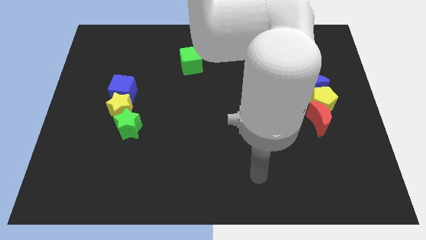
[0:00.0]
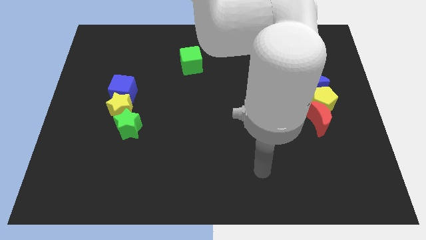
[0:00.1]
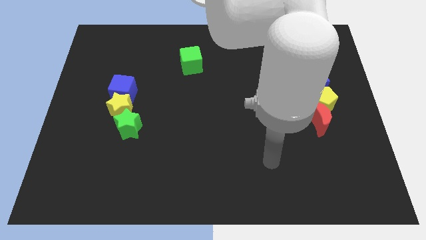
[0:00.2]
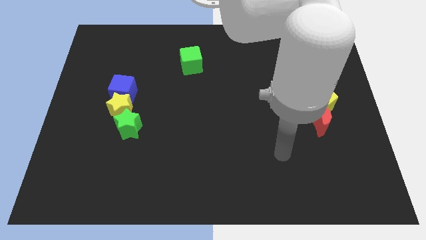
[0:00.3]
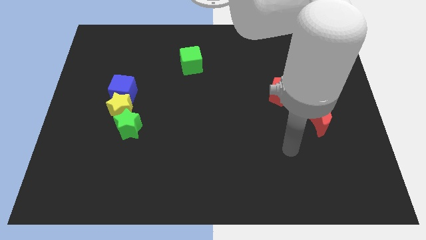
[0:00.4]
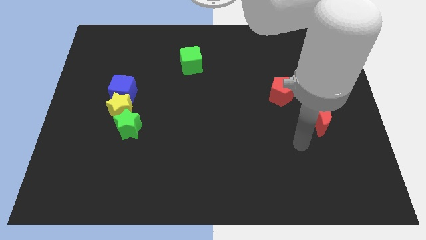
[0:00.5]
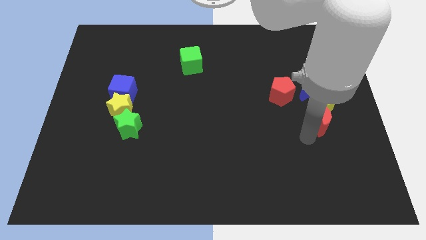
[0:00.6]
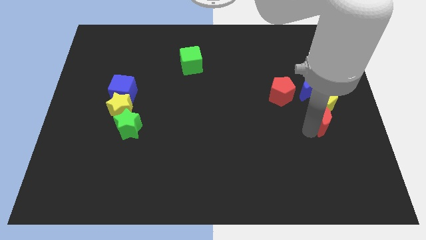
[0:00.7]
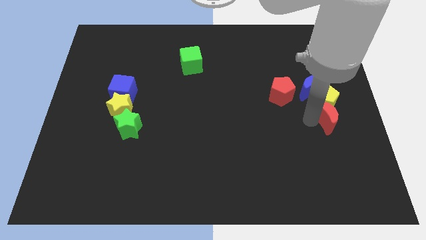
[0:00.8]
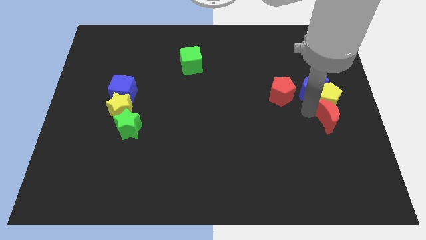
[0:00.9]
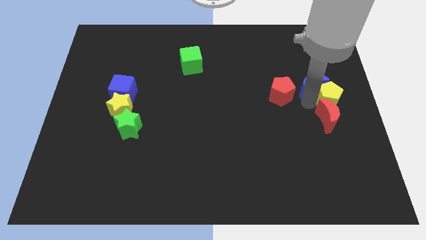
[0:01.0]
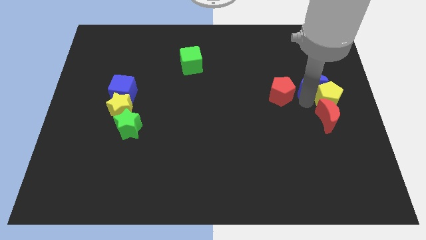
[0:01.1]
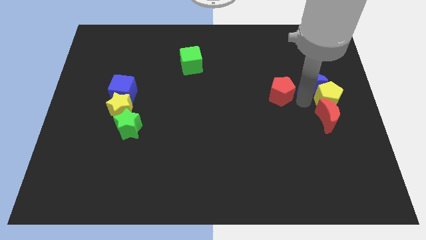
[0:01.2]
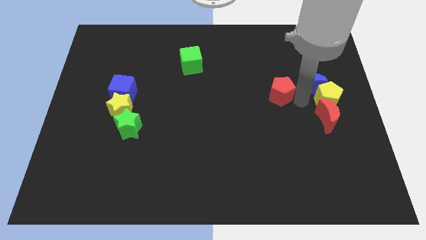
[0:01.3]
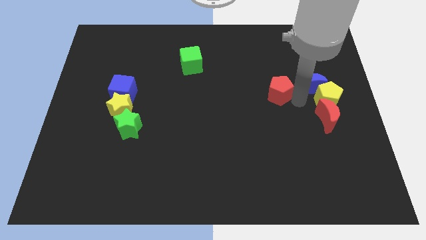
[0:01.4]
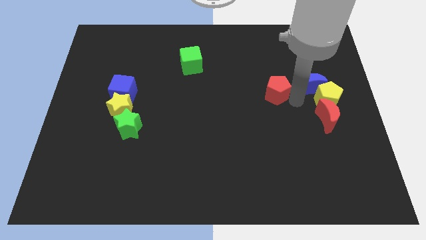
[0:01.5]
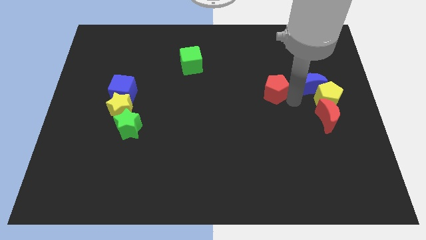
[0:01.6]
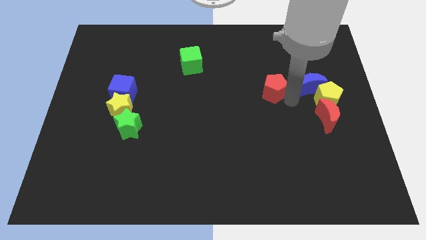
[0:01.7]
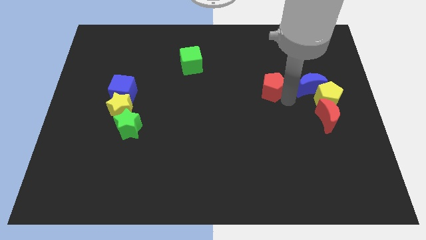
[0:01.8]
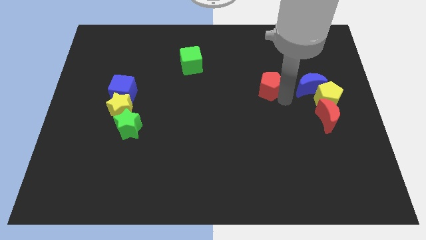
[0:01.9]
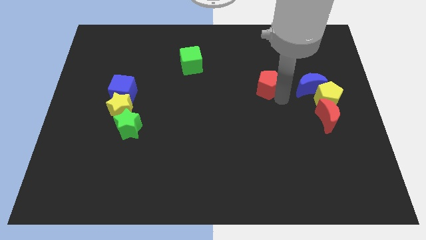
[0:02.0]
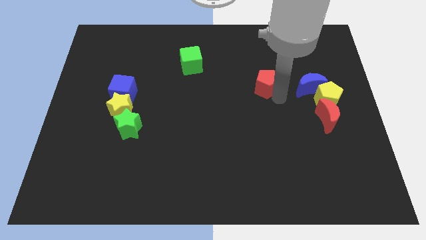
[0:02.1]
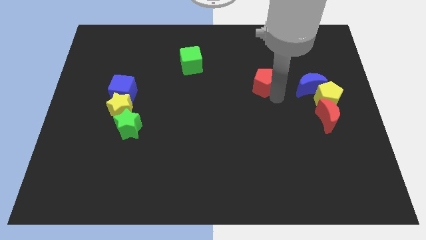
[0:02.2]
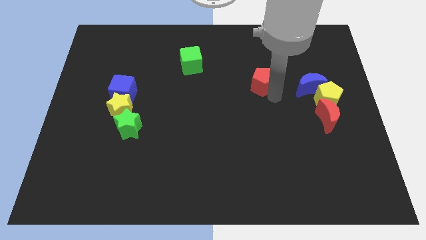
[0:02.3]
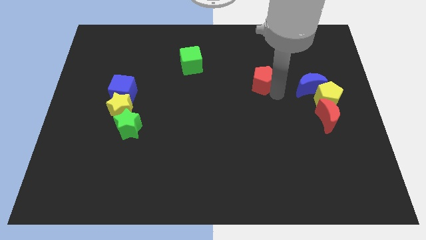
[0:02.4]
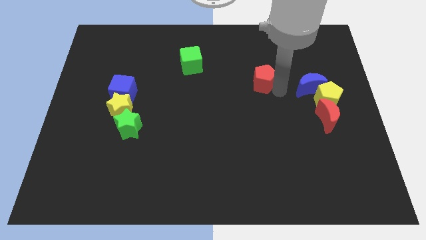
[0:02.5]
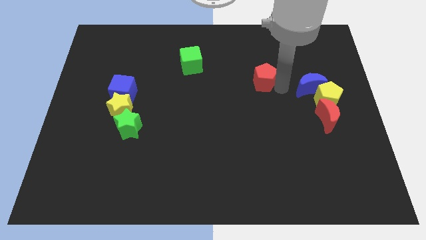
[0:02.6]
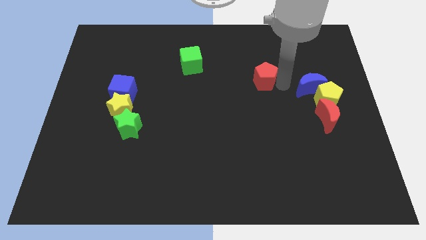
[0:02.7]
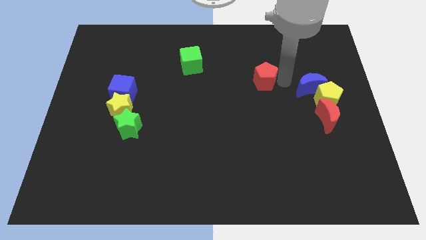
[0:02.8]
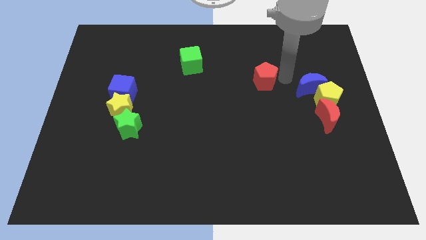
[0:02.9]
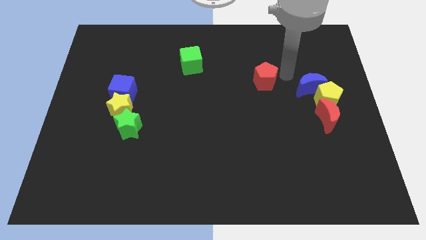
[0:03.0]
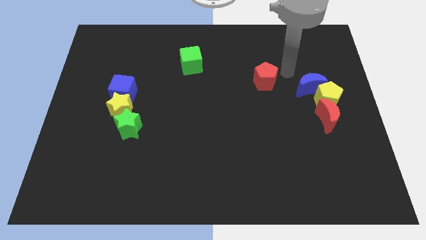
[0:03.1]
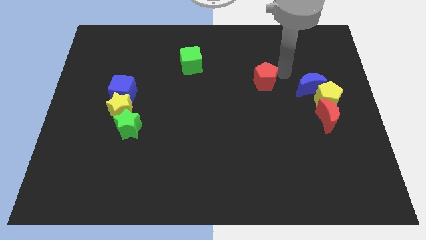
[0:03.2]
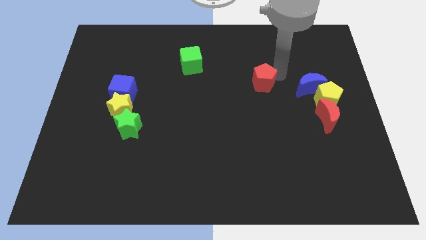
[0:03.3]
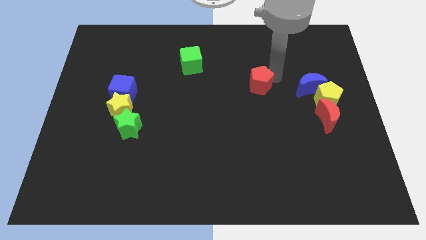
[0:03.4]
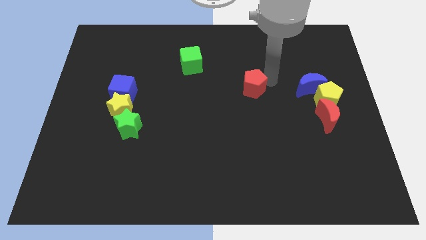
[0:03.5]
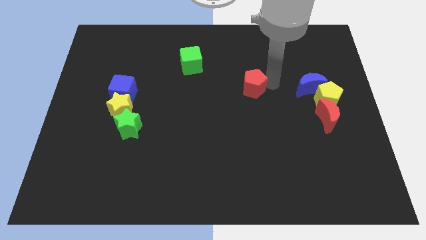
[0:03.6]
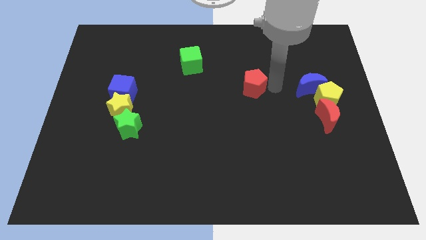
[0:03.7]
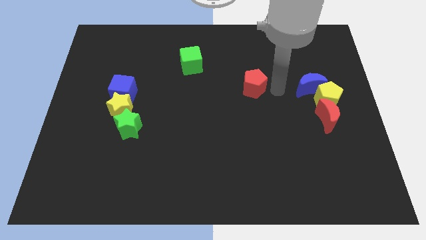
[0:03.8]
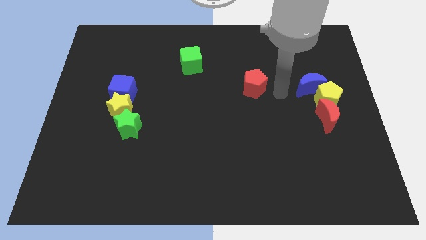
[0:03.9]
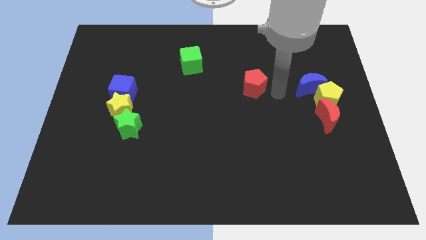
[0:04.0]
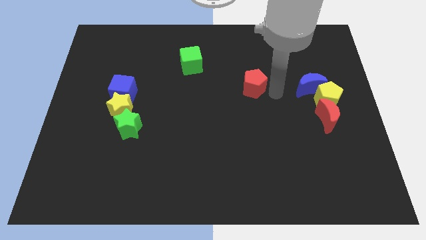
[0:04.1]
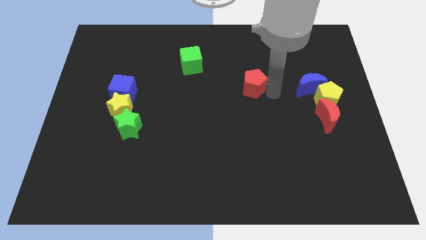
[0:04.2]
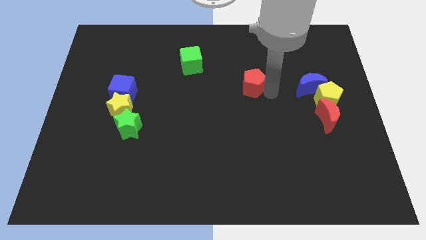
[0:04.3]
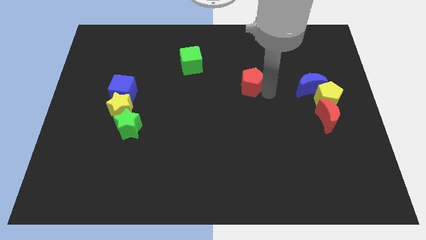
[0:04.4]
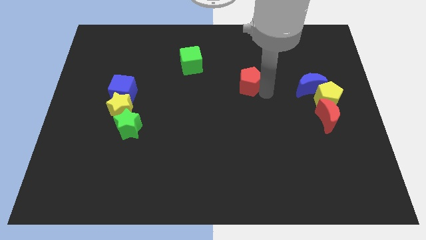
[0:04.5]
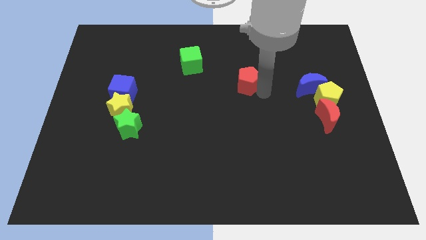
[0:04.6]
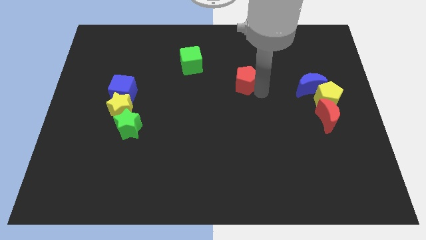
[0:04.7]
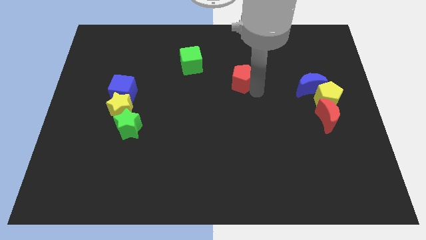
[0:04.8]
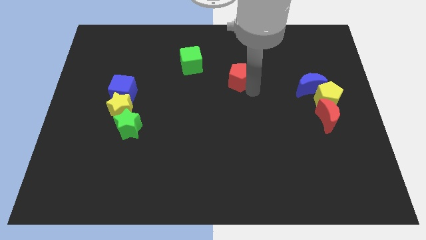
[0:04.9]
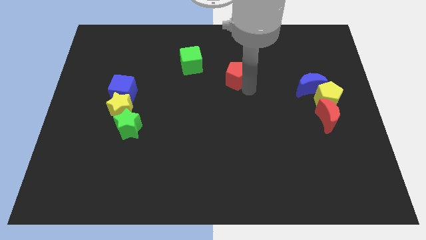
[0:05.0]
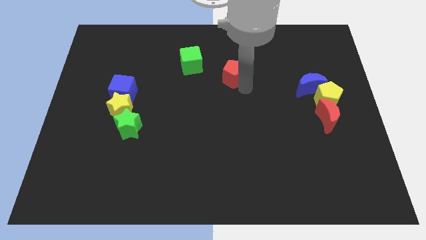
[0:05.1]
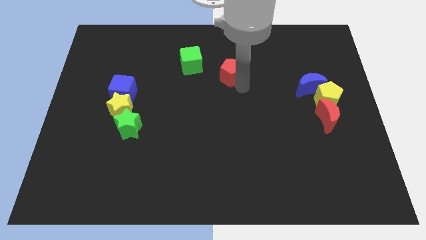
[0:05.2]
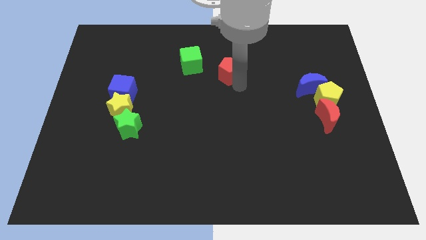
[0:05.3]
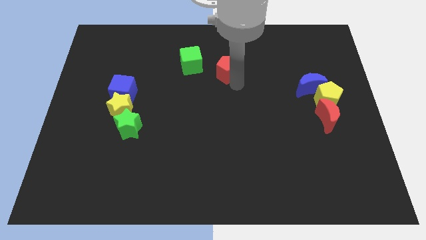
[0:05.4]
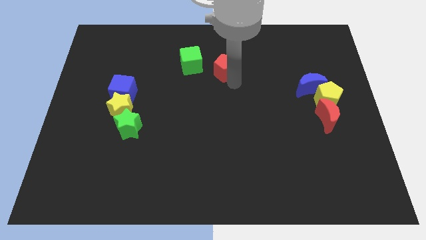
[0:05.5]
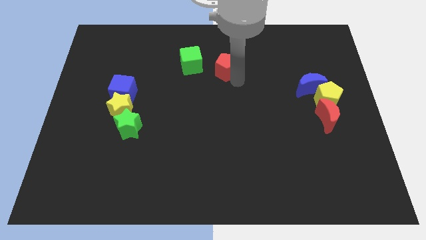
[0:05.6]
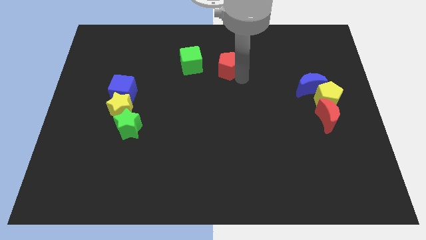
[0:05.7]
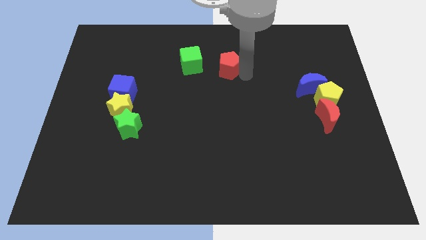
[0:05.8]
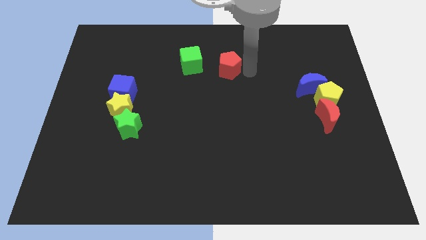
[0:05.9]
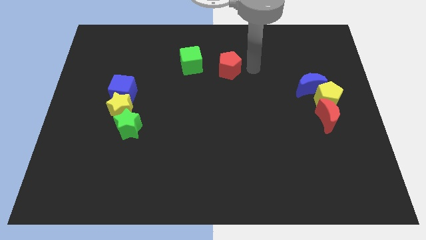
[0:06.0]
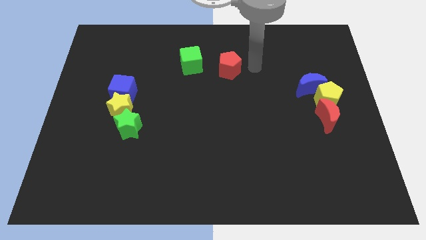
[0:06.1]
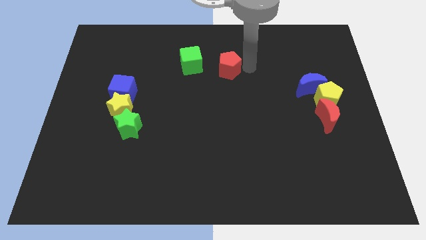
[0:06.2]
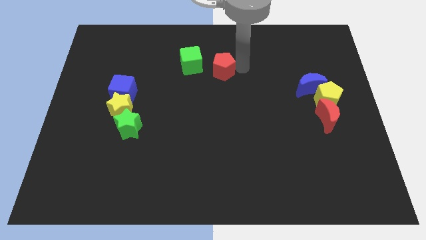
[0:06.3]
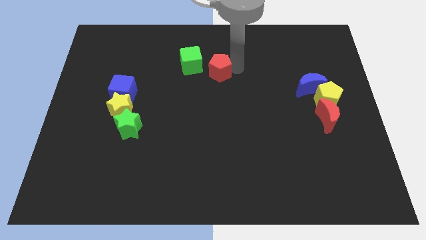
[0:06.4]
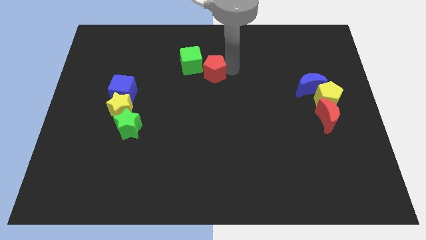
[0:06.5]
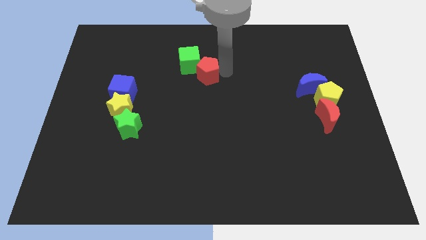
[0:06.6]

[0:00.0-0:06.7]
push the red pentagon towards the green cube

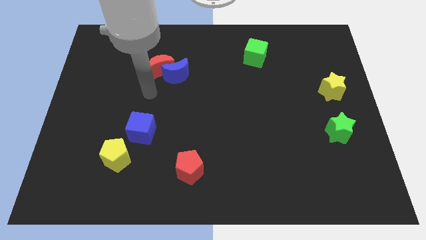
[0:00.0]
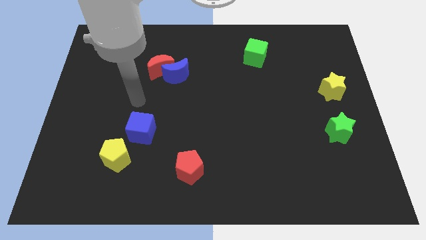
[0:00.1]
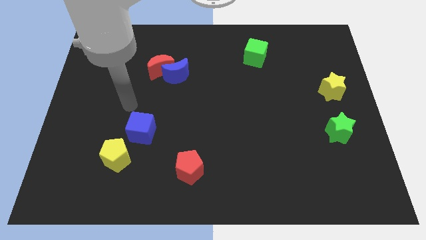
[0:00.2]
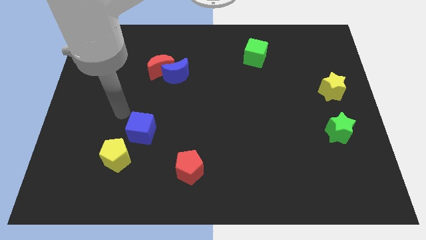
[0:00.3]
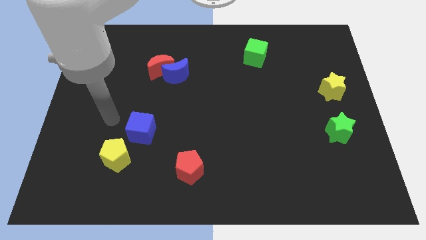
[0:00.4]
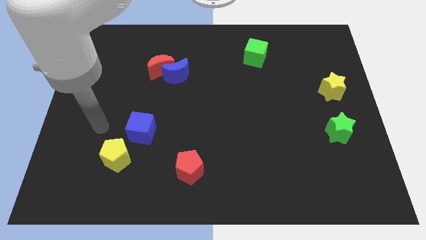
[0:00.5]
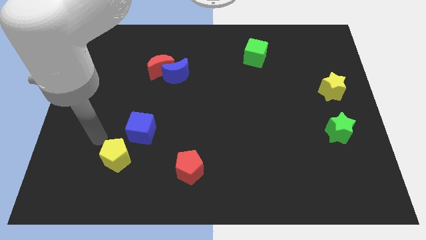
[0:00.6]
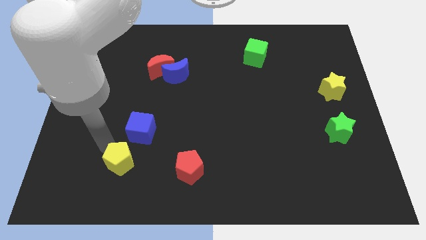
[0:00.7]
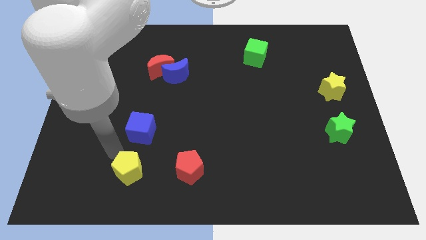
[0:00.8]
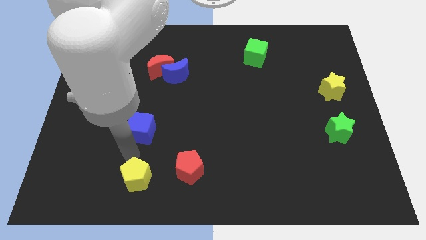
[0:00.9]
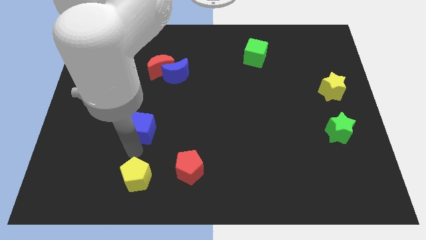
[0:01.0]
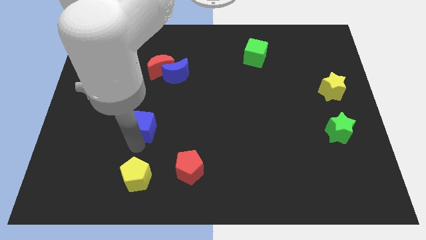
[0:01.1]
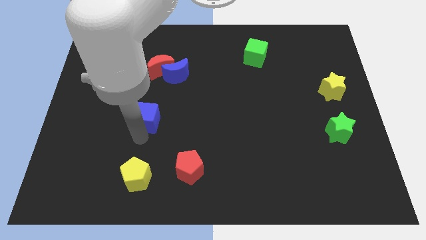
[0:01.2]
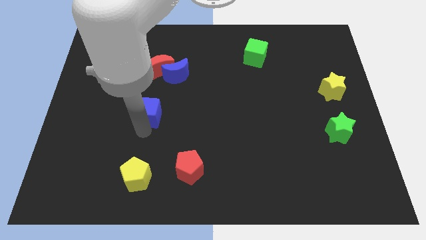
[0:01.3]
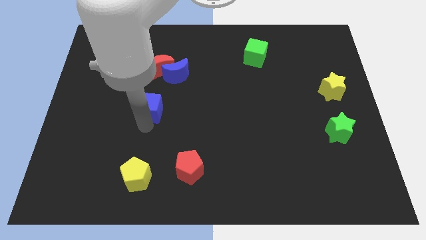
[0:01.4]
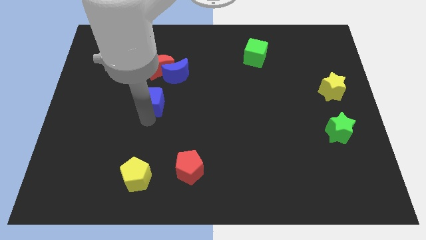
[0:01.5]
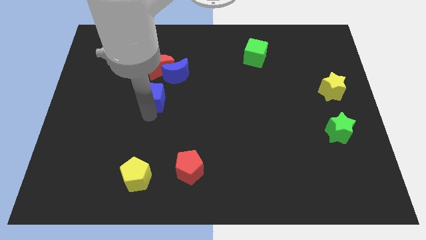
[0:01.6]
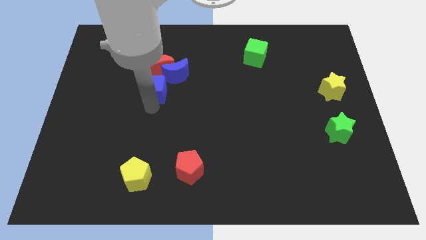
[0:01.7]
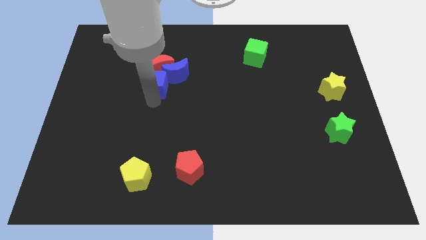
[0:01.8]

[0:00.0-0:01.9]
move the blue cube close to the red moon
